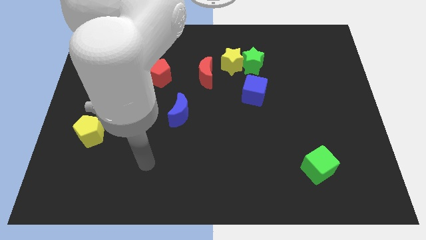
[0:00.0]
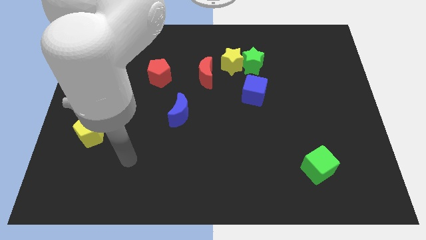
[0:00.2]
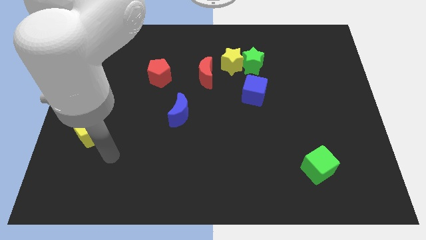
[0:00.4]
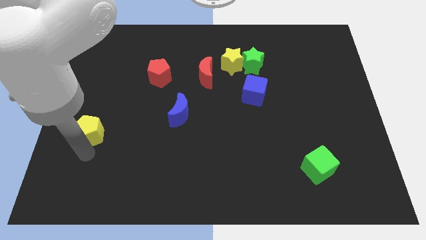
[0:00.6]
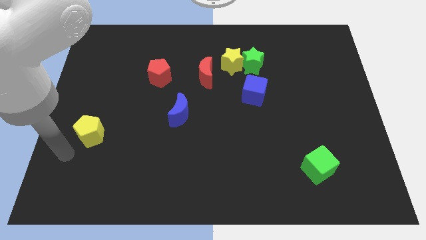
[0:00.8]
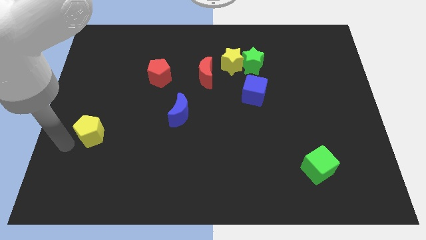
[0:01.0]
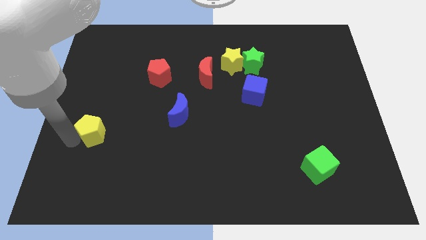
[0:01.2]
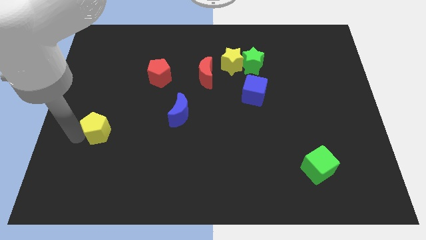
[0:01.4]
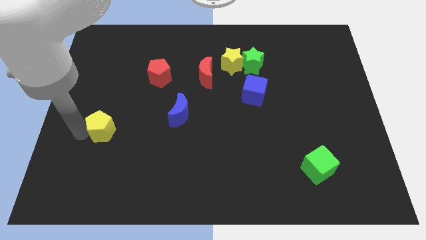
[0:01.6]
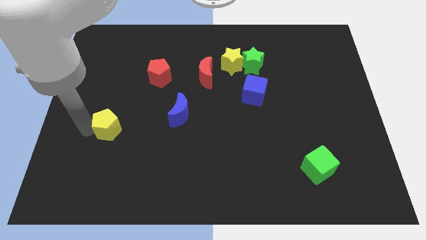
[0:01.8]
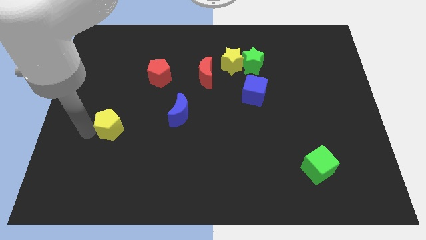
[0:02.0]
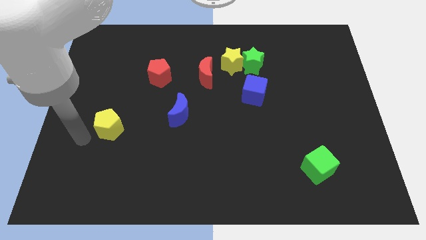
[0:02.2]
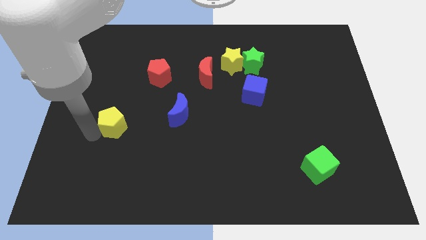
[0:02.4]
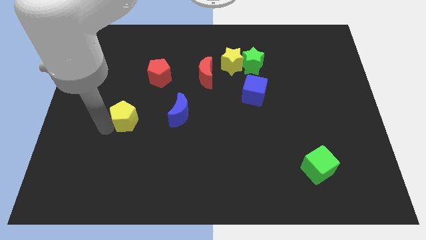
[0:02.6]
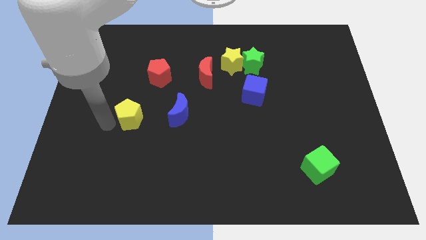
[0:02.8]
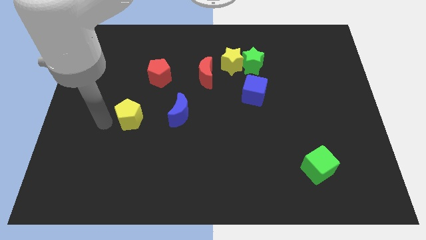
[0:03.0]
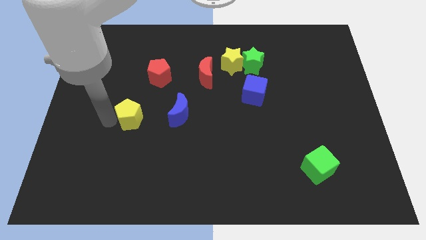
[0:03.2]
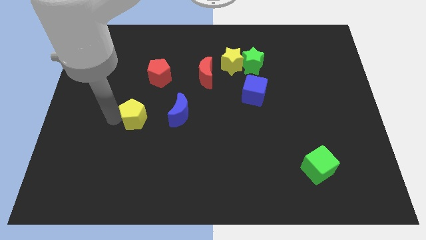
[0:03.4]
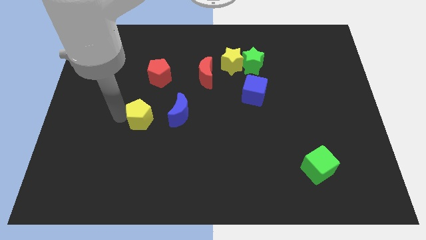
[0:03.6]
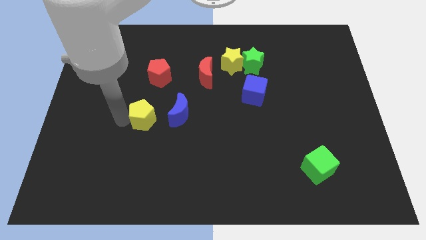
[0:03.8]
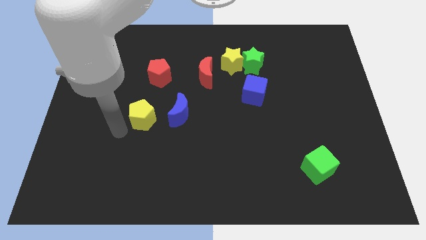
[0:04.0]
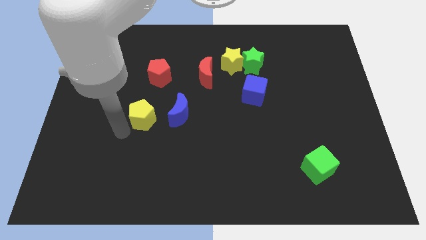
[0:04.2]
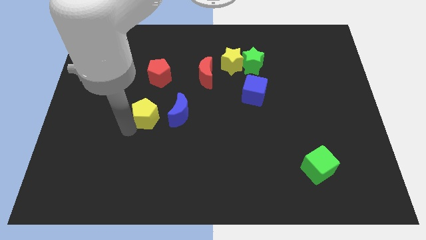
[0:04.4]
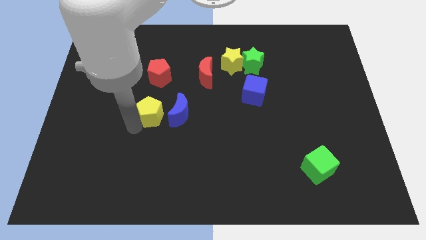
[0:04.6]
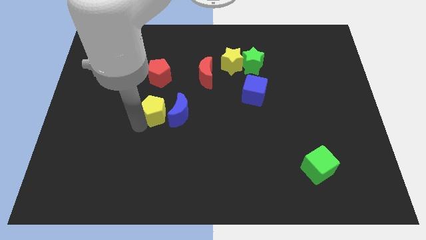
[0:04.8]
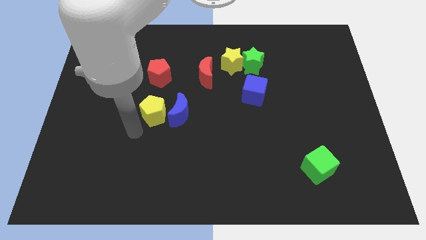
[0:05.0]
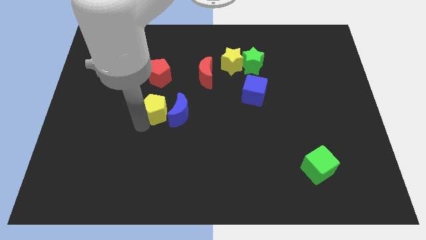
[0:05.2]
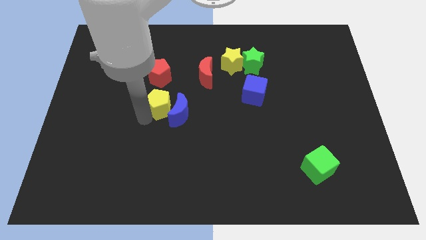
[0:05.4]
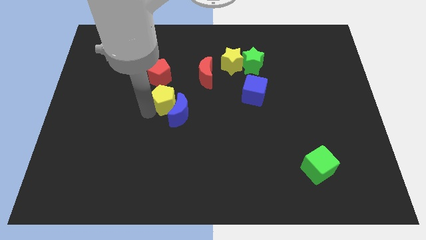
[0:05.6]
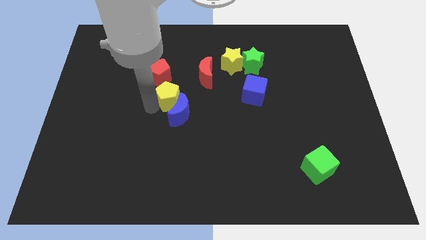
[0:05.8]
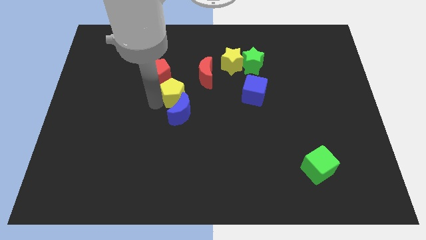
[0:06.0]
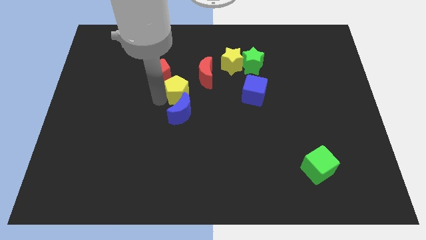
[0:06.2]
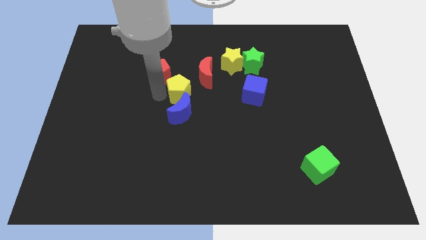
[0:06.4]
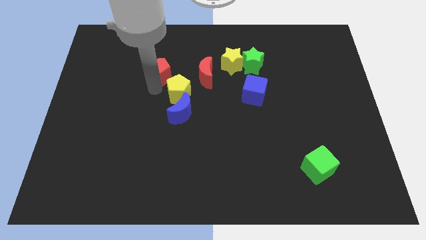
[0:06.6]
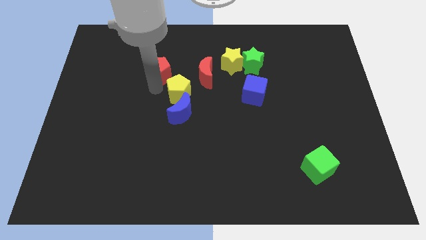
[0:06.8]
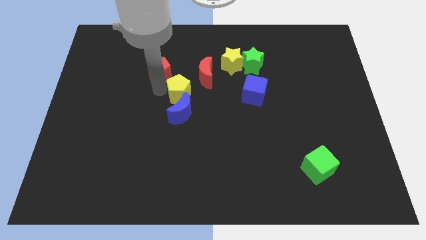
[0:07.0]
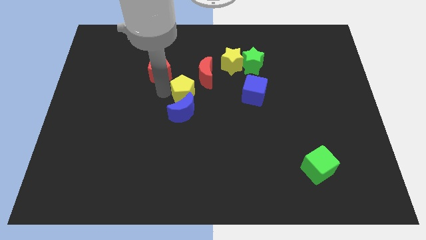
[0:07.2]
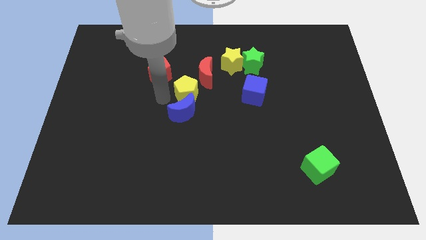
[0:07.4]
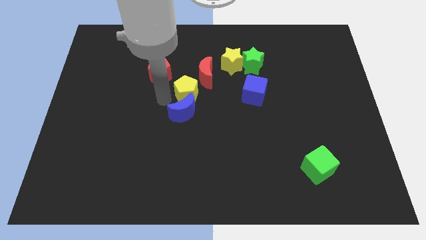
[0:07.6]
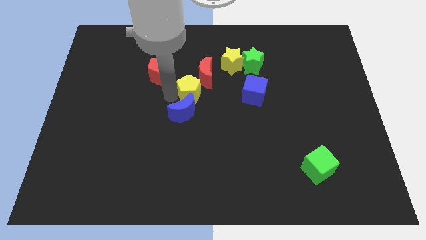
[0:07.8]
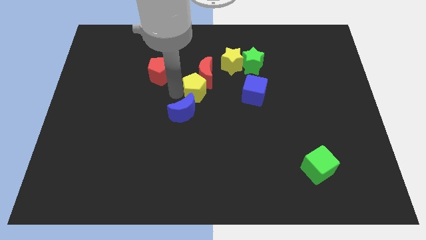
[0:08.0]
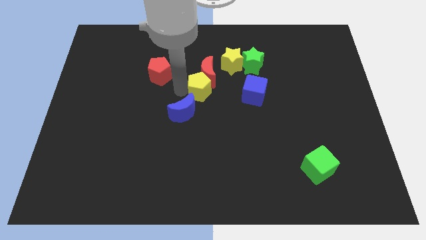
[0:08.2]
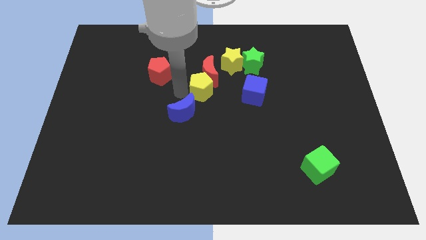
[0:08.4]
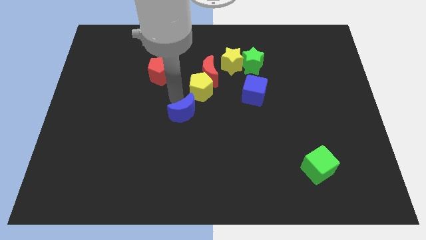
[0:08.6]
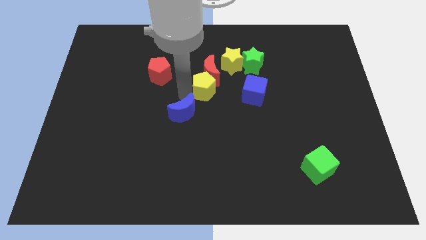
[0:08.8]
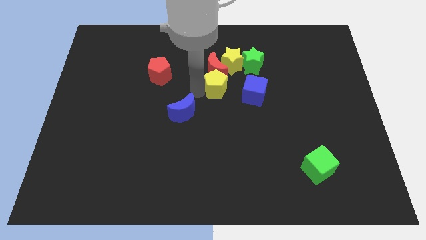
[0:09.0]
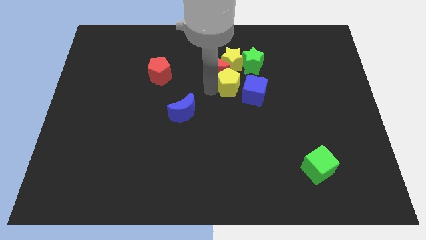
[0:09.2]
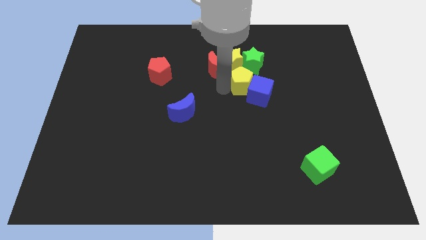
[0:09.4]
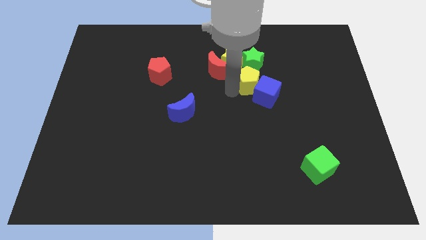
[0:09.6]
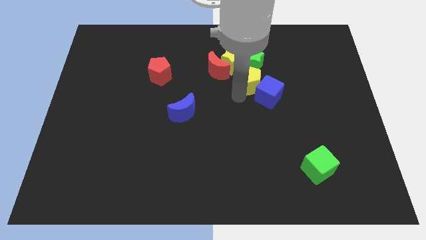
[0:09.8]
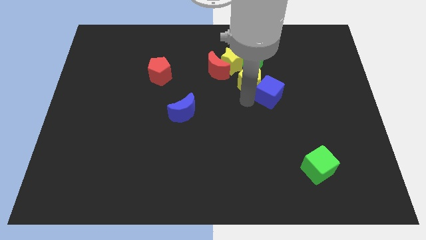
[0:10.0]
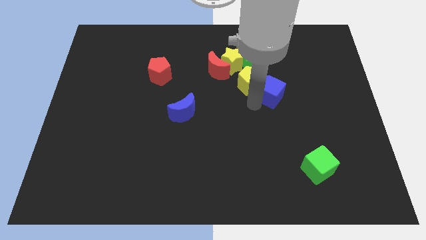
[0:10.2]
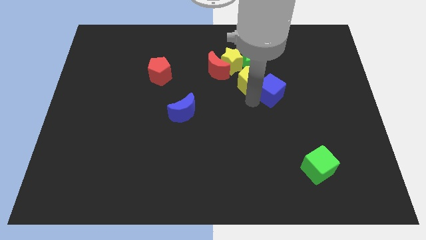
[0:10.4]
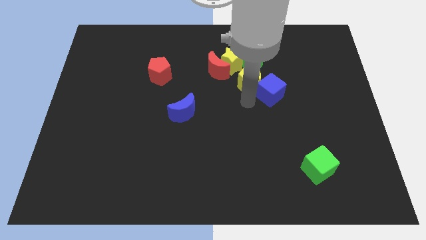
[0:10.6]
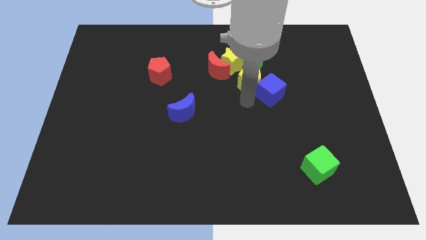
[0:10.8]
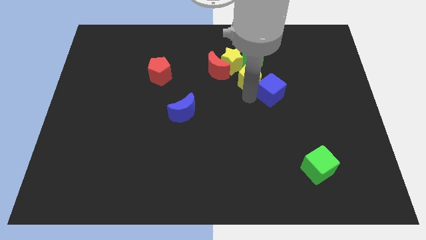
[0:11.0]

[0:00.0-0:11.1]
push the yellow pentagon next to the green star

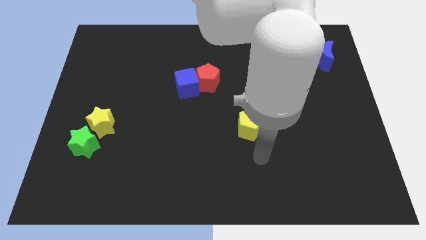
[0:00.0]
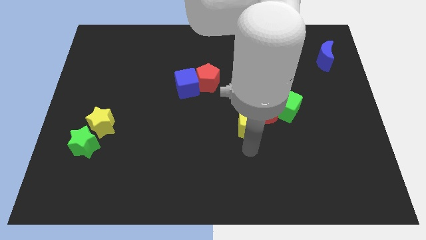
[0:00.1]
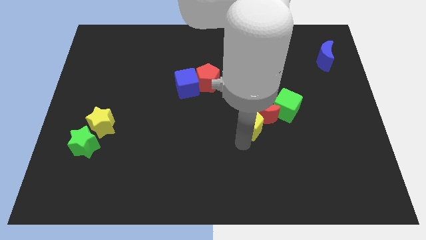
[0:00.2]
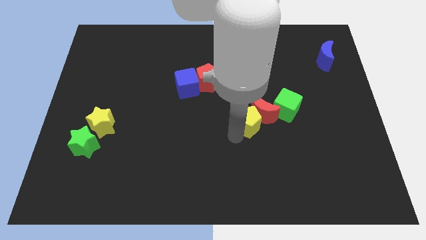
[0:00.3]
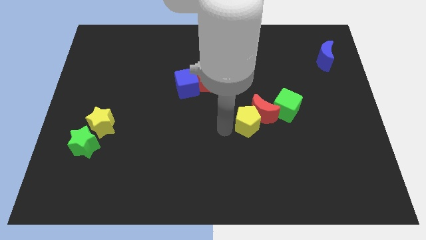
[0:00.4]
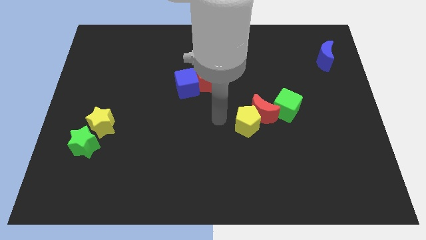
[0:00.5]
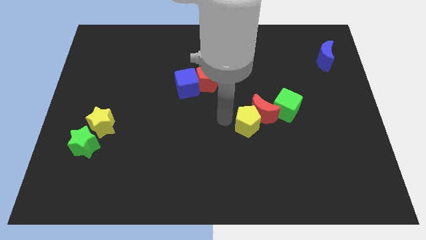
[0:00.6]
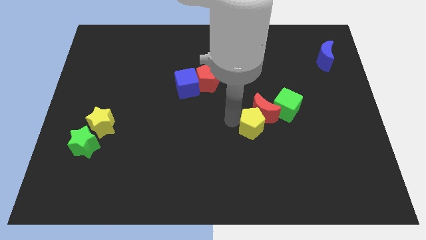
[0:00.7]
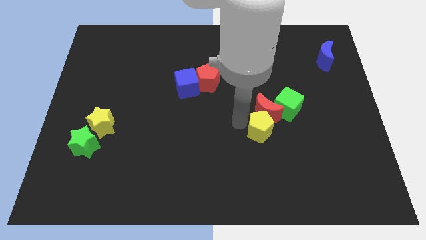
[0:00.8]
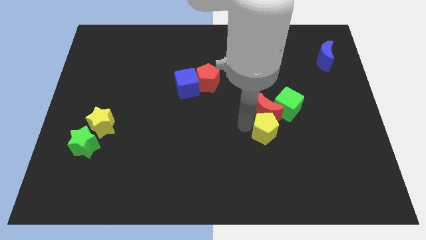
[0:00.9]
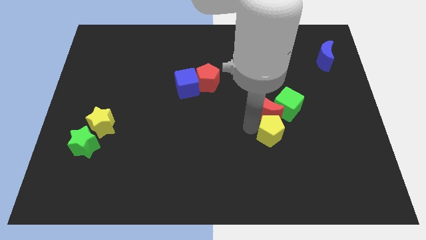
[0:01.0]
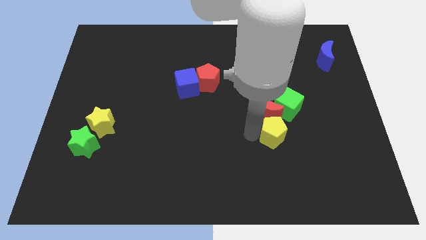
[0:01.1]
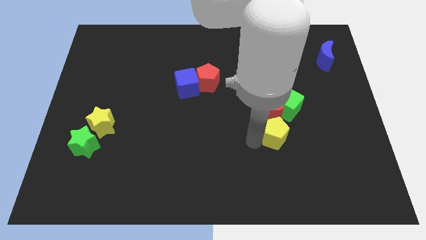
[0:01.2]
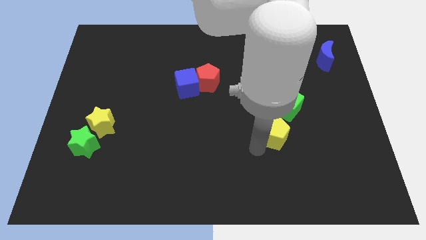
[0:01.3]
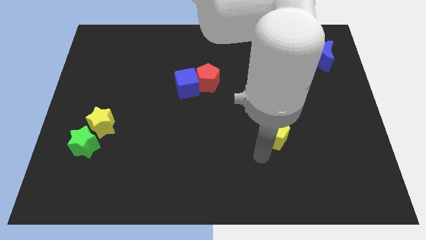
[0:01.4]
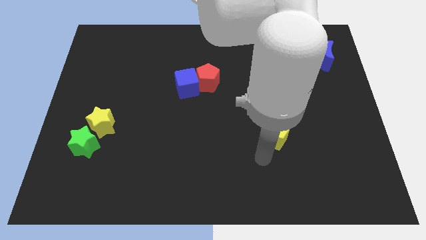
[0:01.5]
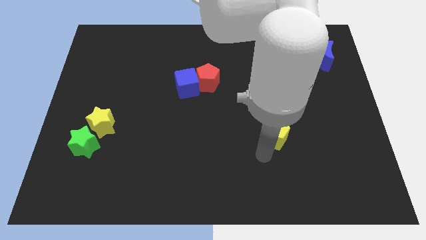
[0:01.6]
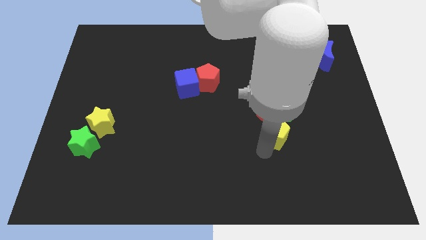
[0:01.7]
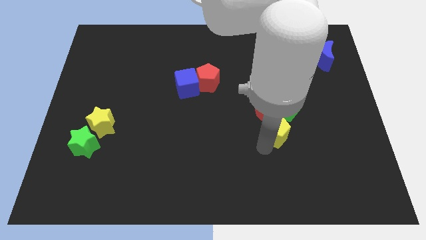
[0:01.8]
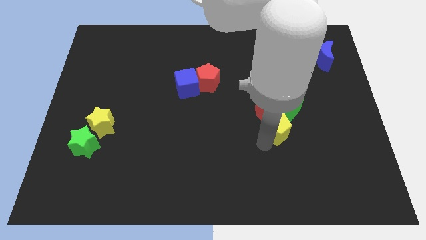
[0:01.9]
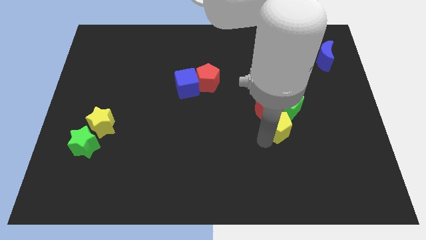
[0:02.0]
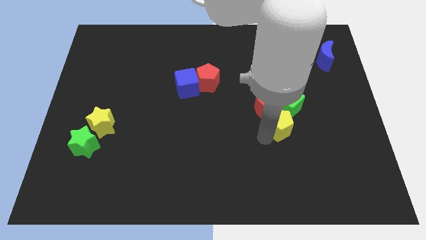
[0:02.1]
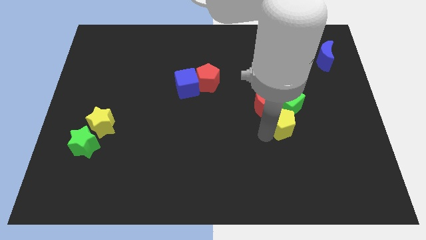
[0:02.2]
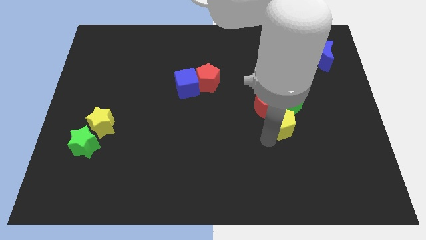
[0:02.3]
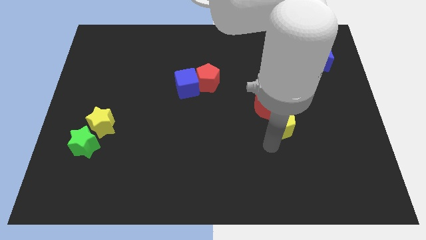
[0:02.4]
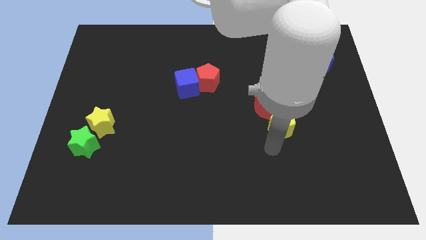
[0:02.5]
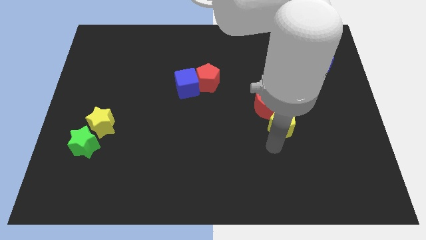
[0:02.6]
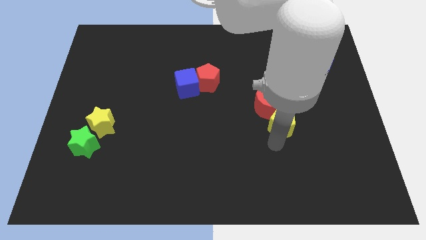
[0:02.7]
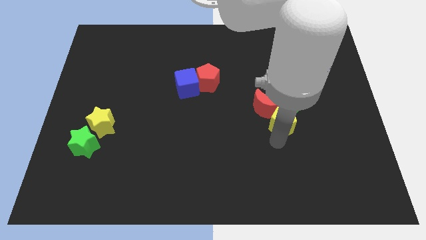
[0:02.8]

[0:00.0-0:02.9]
slide the yellow pentagon next to the green cube
